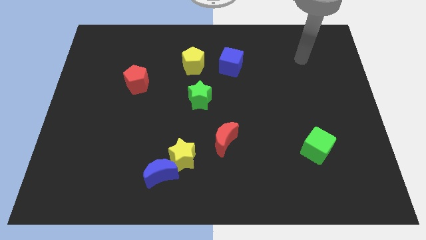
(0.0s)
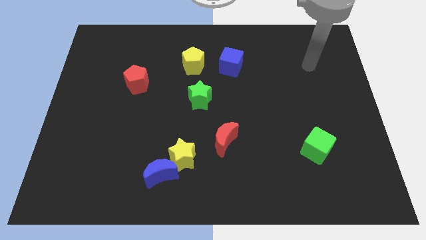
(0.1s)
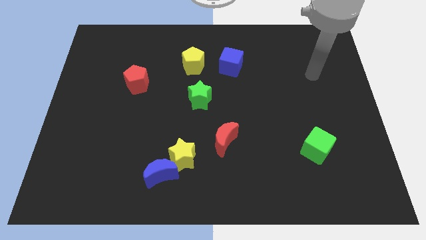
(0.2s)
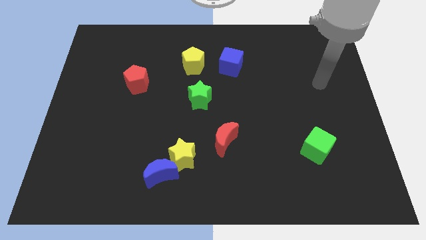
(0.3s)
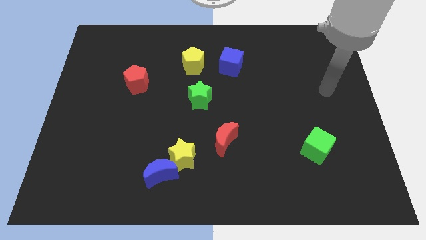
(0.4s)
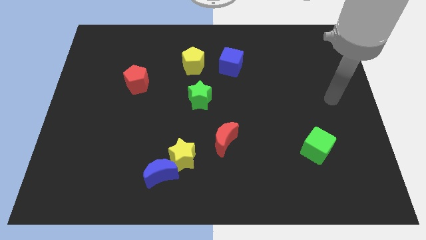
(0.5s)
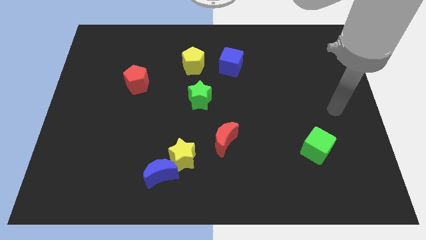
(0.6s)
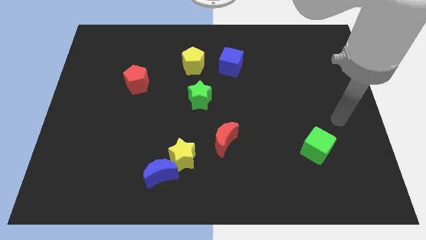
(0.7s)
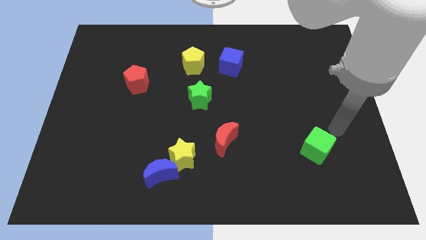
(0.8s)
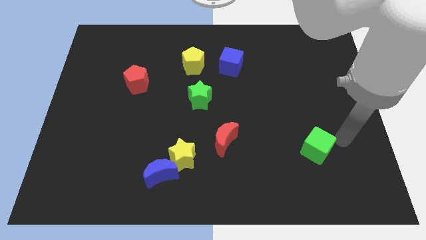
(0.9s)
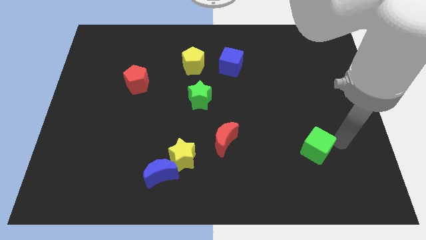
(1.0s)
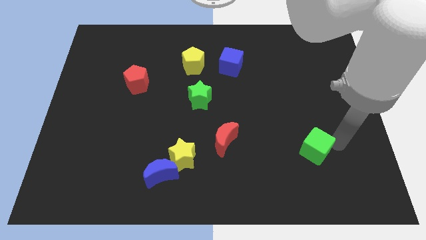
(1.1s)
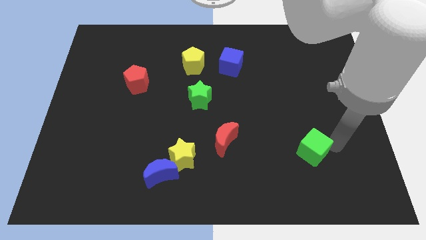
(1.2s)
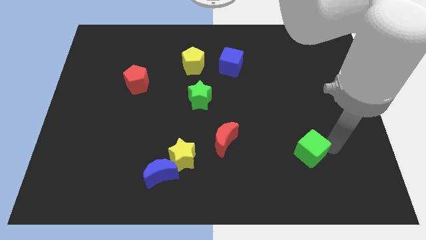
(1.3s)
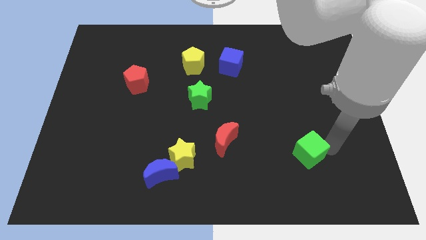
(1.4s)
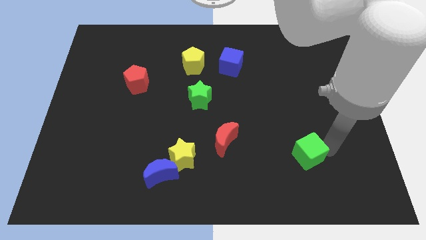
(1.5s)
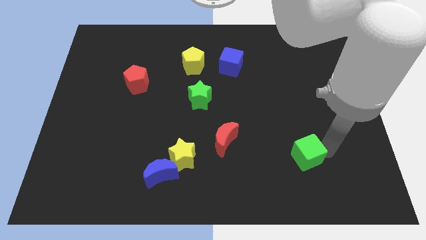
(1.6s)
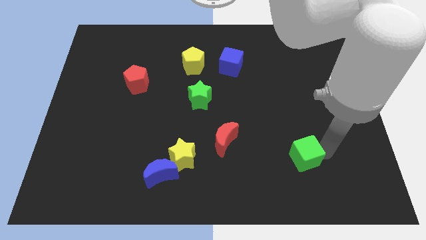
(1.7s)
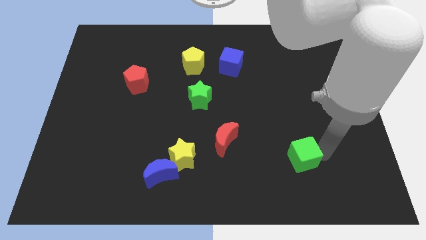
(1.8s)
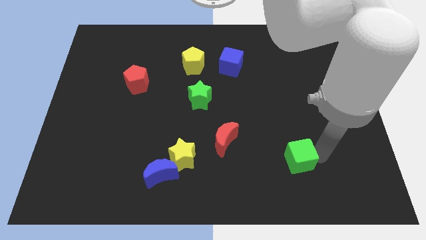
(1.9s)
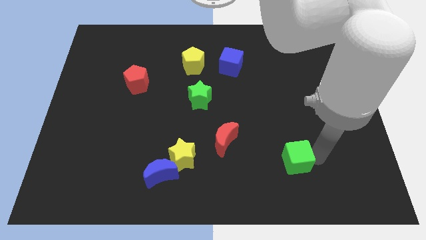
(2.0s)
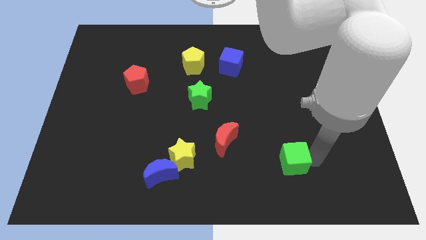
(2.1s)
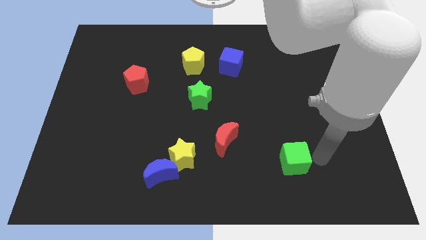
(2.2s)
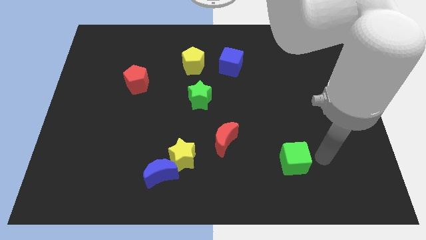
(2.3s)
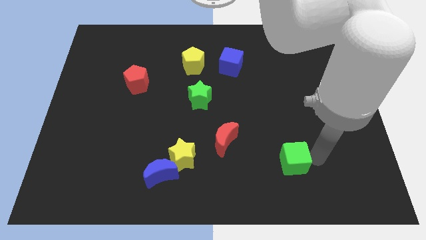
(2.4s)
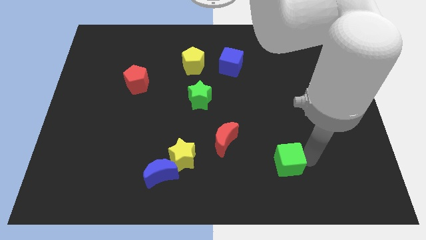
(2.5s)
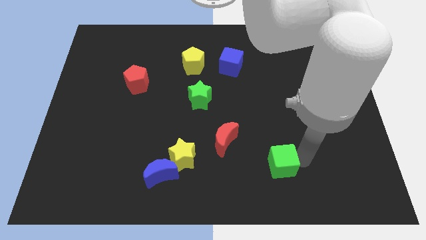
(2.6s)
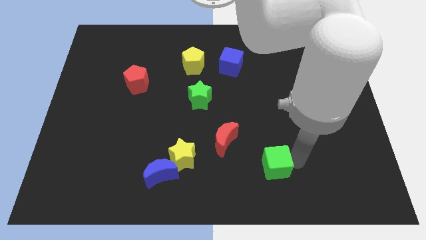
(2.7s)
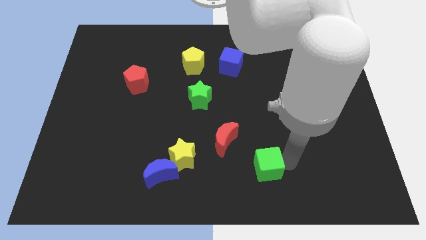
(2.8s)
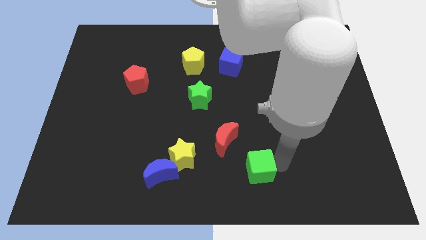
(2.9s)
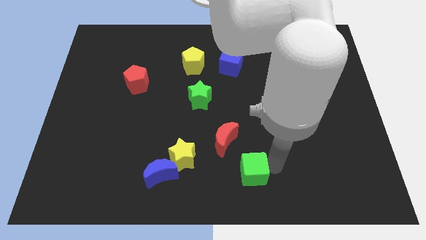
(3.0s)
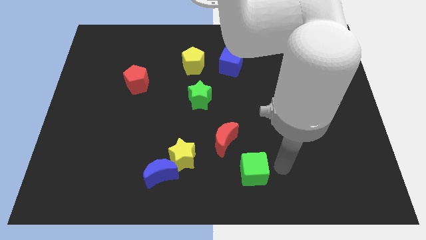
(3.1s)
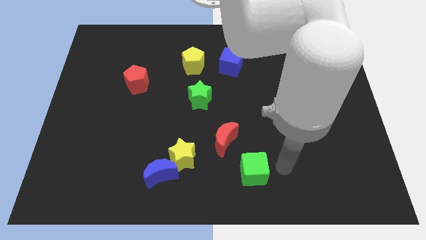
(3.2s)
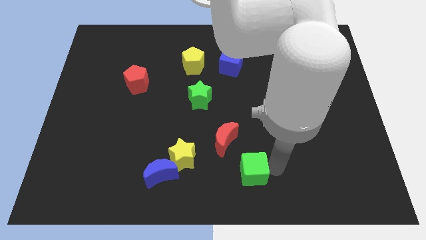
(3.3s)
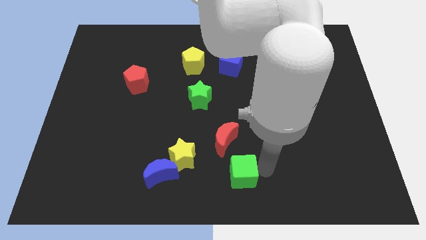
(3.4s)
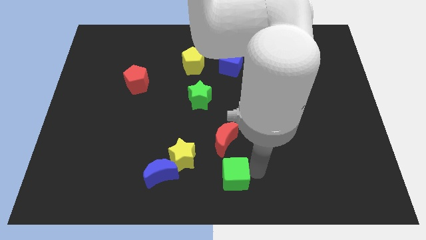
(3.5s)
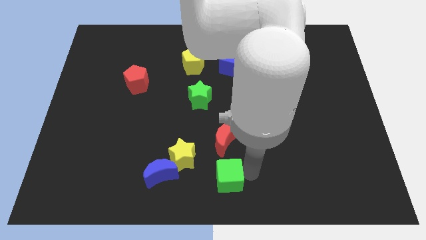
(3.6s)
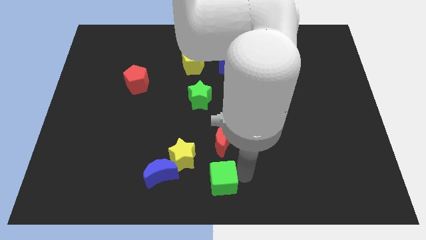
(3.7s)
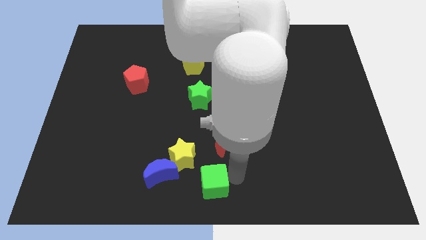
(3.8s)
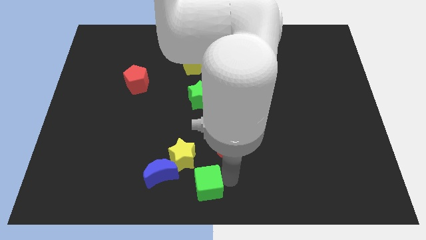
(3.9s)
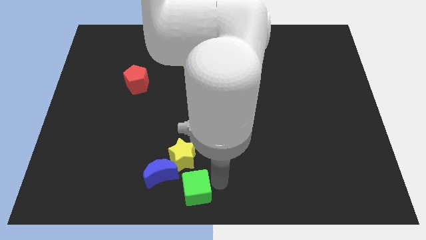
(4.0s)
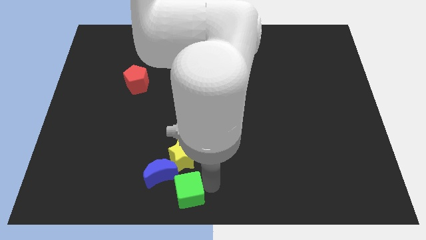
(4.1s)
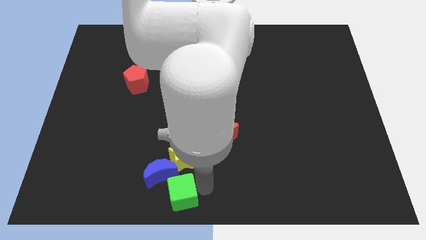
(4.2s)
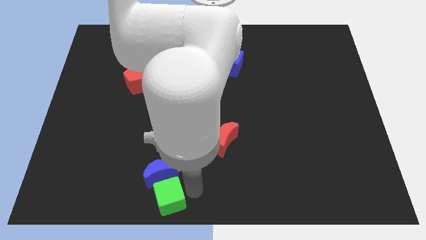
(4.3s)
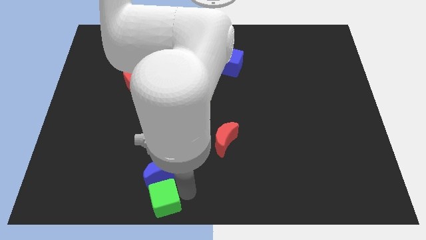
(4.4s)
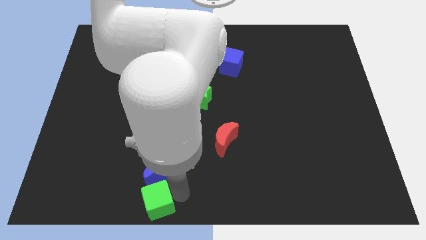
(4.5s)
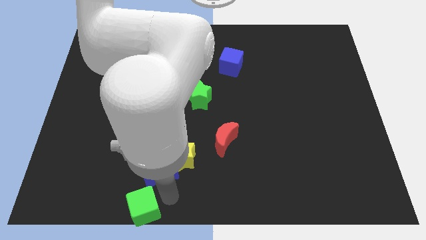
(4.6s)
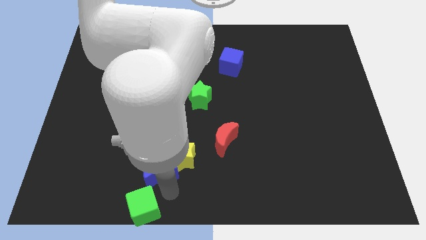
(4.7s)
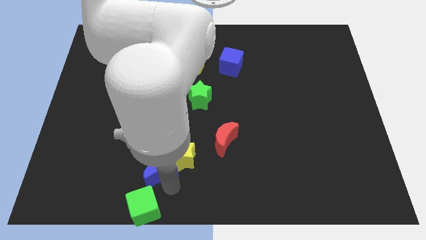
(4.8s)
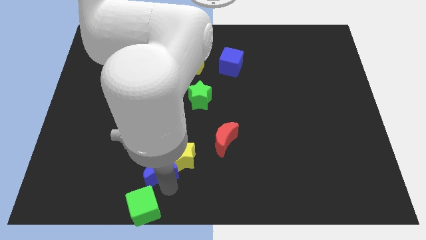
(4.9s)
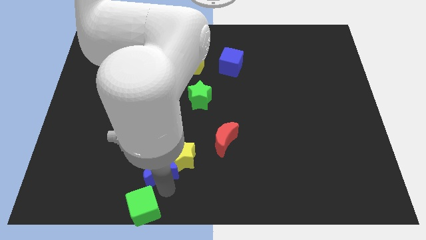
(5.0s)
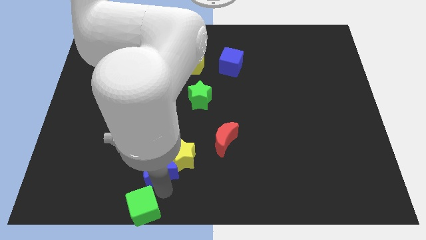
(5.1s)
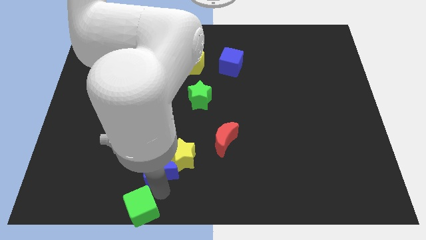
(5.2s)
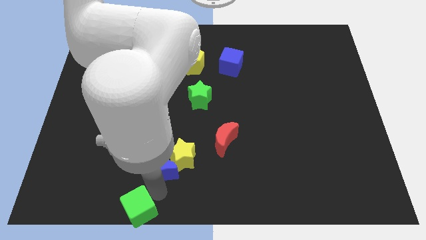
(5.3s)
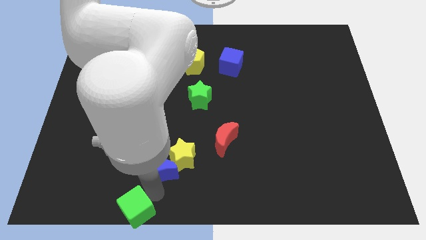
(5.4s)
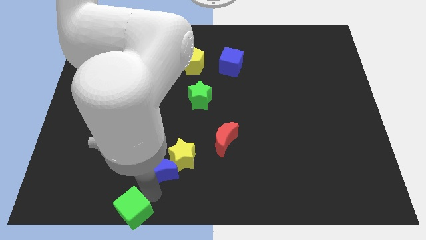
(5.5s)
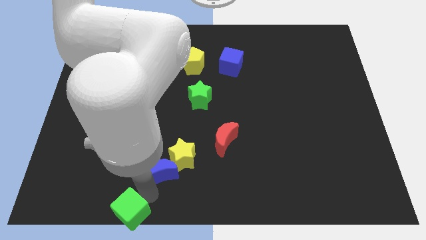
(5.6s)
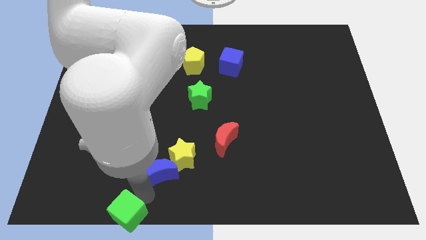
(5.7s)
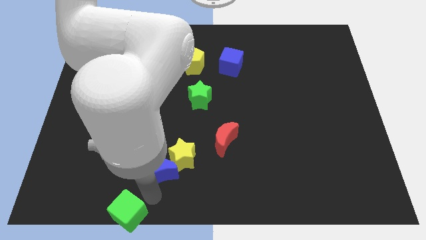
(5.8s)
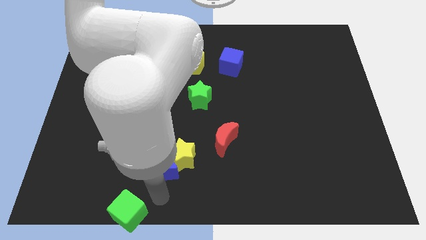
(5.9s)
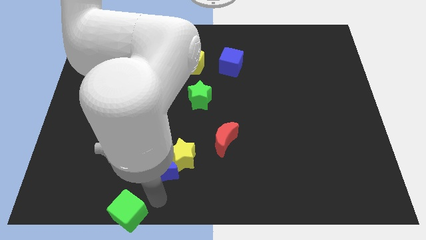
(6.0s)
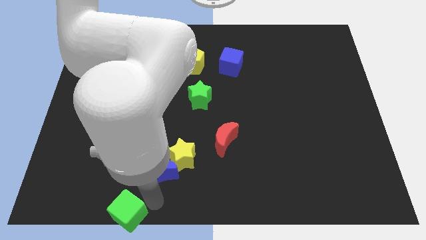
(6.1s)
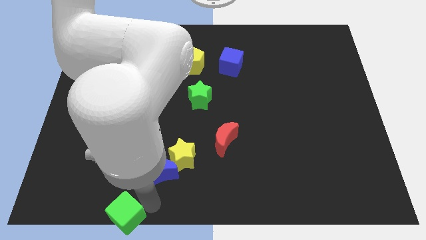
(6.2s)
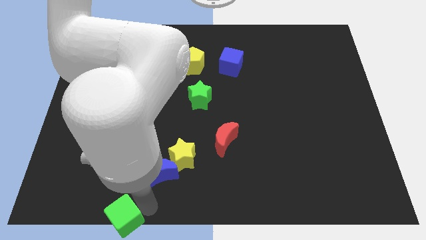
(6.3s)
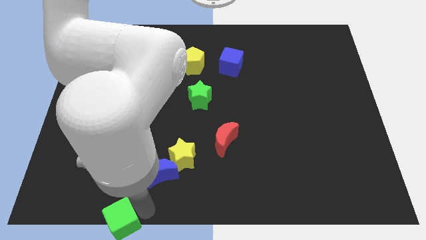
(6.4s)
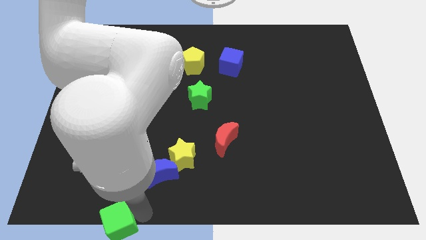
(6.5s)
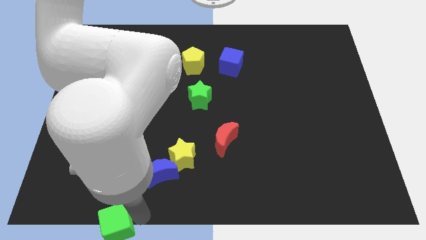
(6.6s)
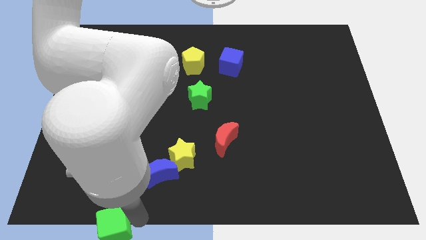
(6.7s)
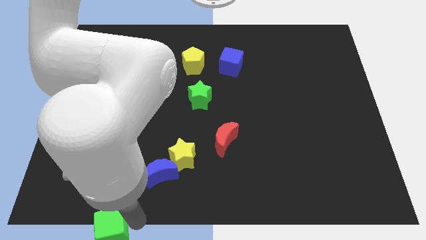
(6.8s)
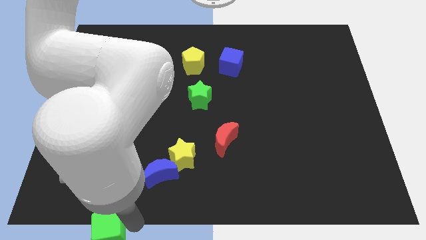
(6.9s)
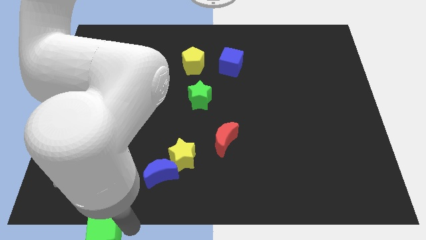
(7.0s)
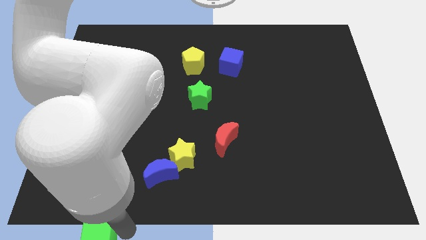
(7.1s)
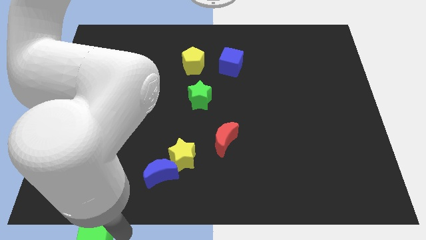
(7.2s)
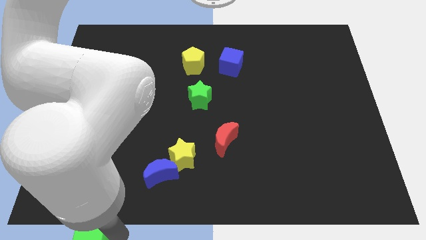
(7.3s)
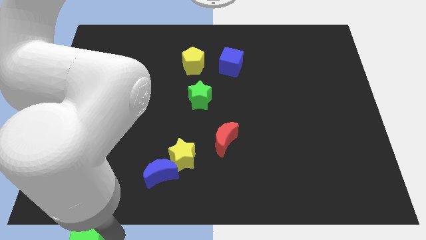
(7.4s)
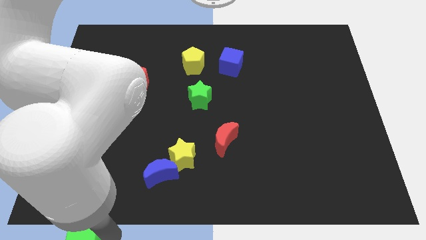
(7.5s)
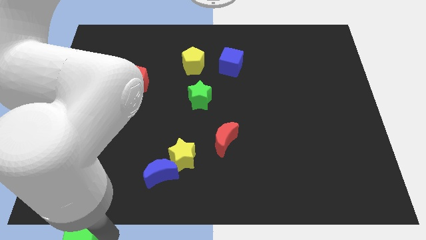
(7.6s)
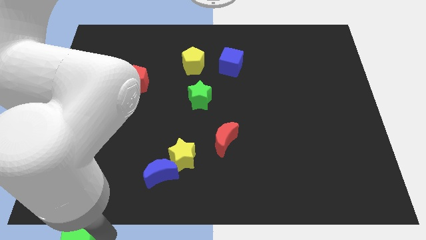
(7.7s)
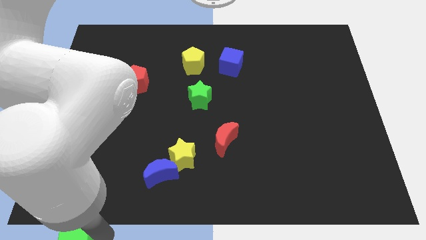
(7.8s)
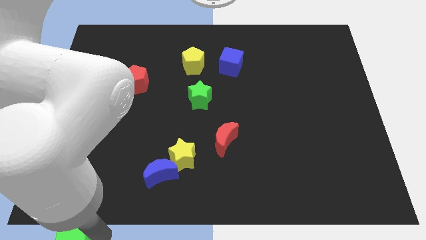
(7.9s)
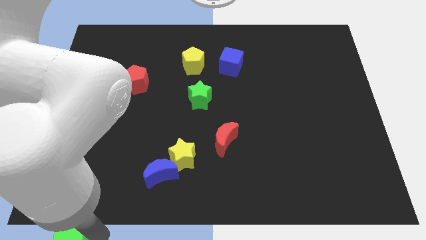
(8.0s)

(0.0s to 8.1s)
move the green cube to the bottom left corner

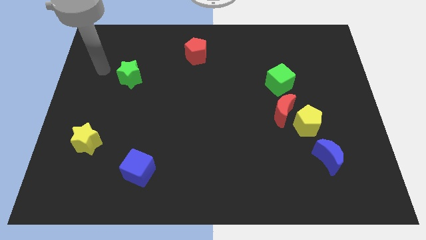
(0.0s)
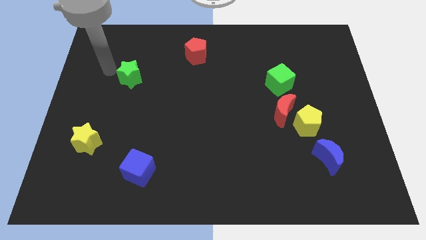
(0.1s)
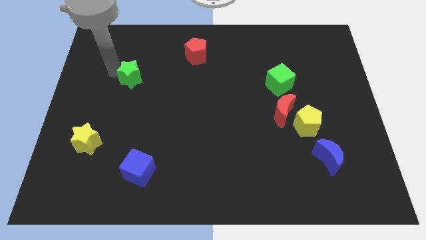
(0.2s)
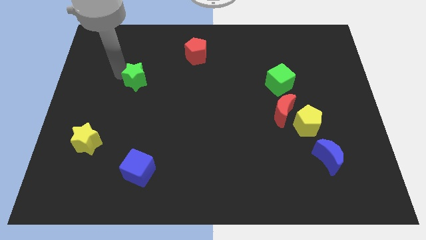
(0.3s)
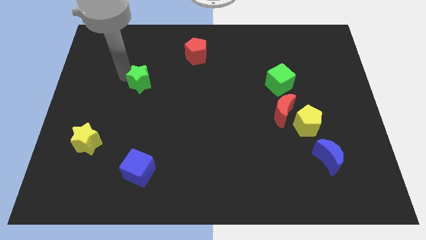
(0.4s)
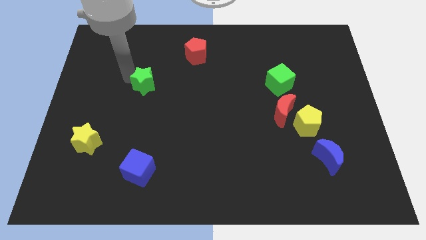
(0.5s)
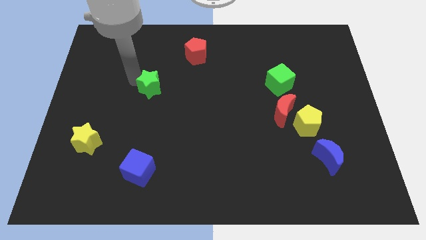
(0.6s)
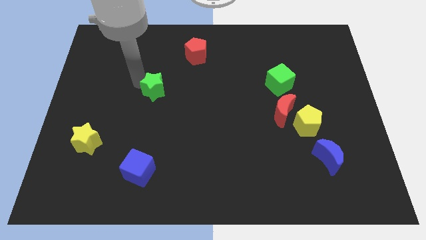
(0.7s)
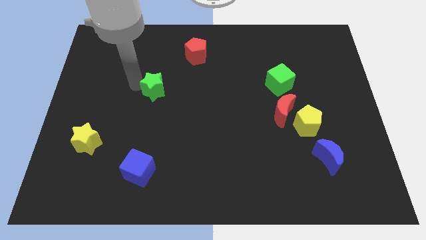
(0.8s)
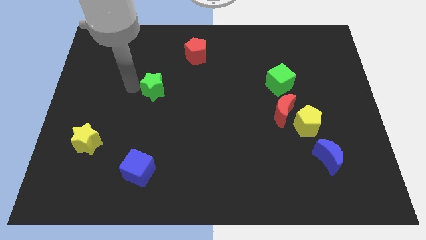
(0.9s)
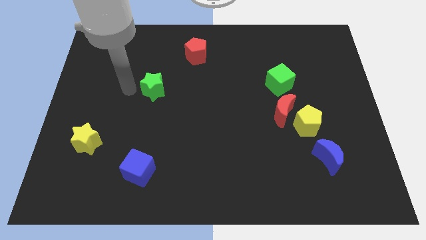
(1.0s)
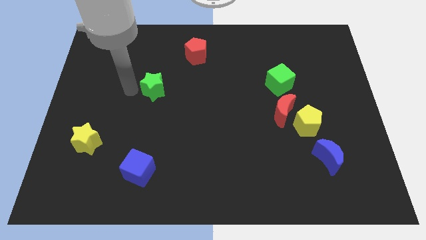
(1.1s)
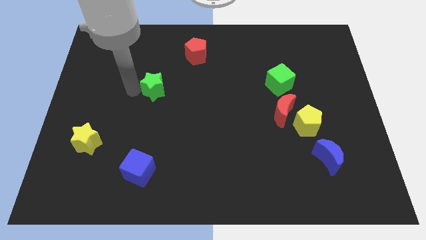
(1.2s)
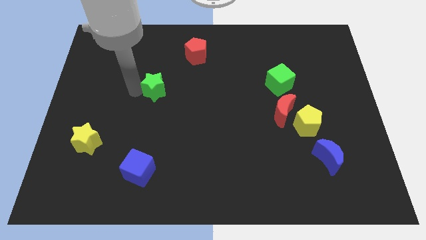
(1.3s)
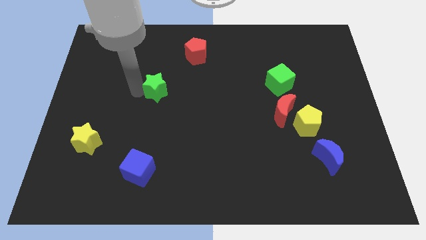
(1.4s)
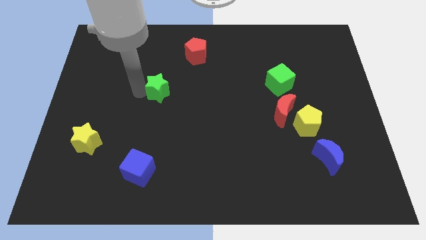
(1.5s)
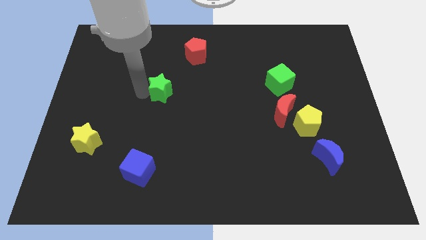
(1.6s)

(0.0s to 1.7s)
slide the green star to the center
